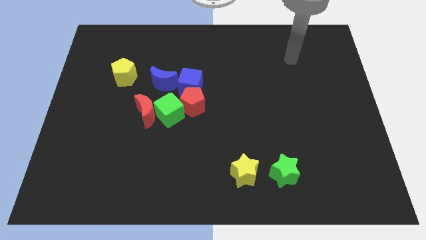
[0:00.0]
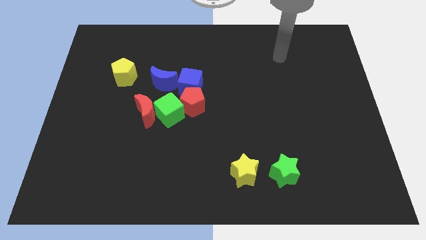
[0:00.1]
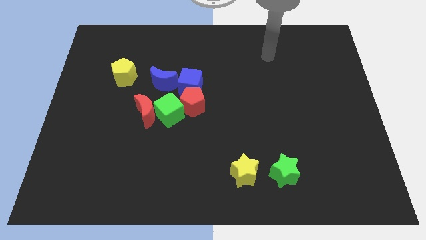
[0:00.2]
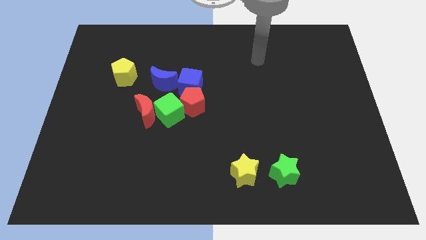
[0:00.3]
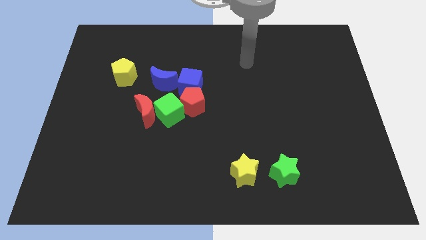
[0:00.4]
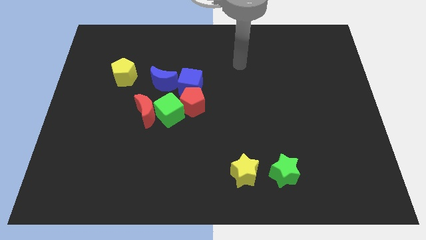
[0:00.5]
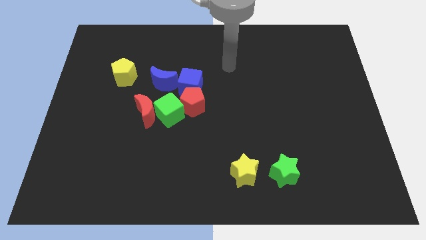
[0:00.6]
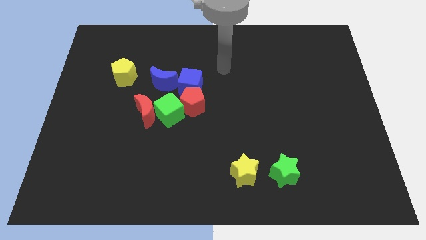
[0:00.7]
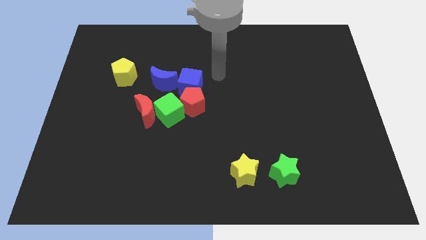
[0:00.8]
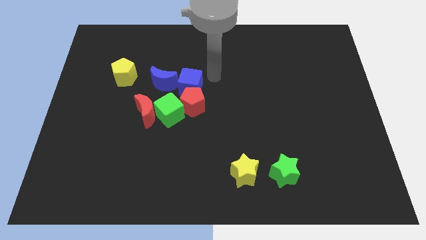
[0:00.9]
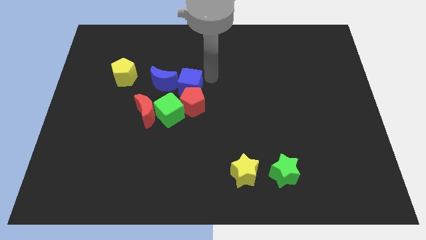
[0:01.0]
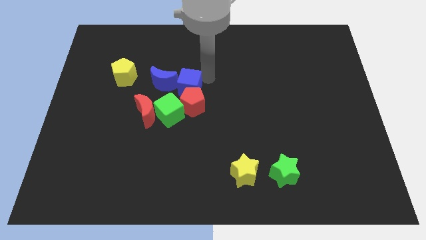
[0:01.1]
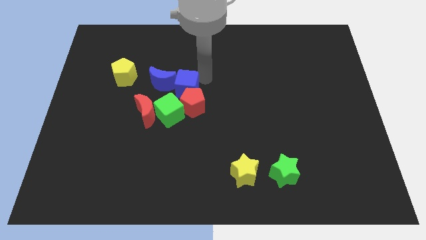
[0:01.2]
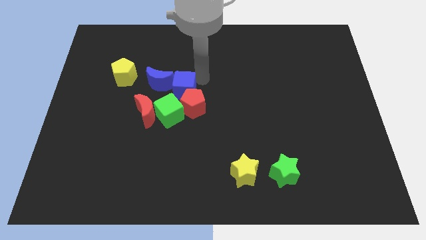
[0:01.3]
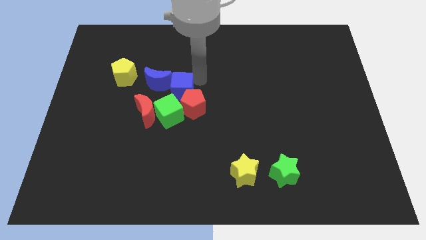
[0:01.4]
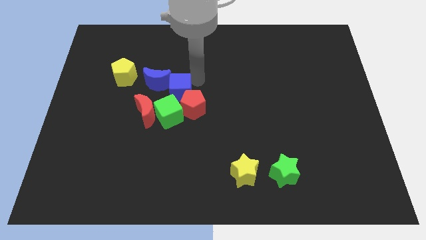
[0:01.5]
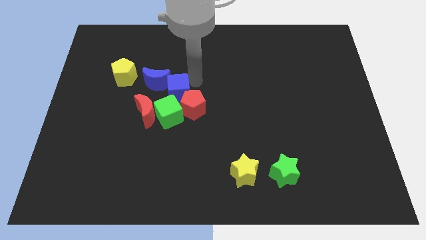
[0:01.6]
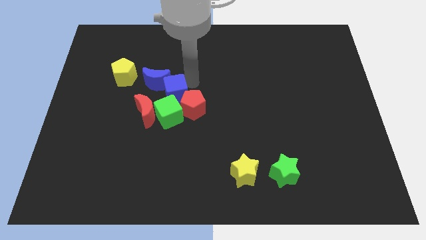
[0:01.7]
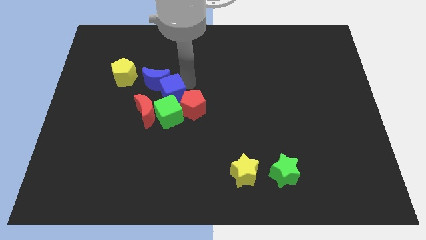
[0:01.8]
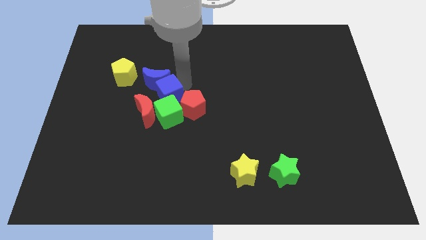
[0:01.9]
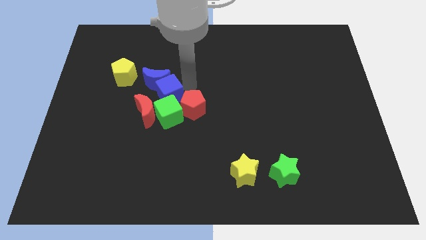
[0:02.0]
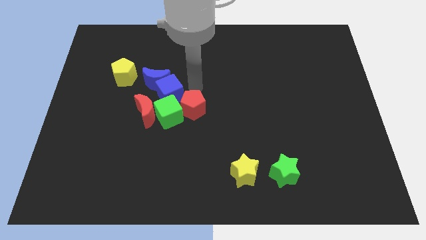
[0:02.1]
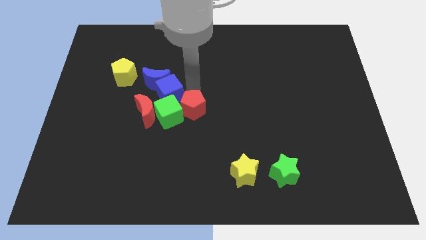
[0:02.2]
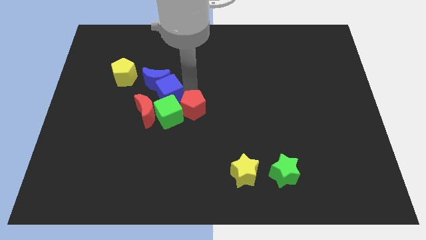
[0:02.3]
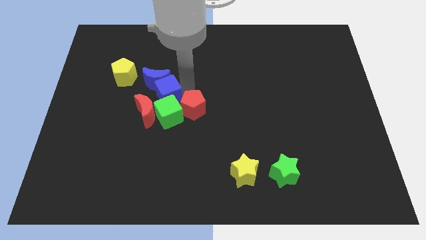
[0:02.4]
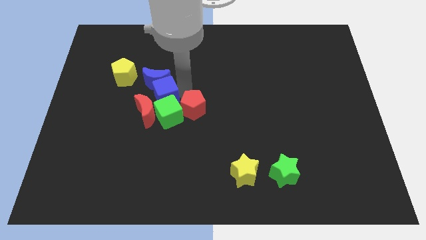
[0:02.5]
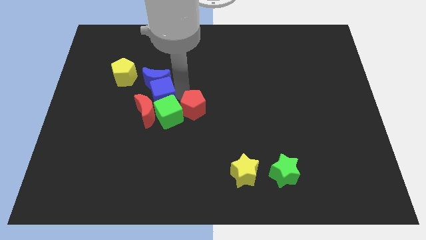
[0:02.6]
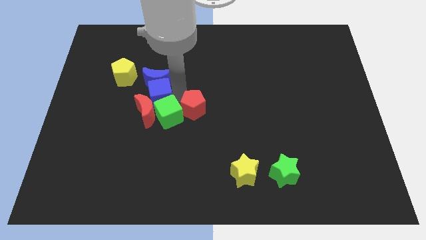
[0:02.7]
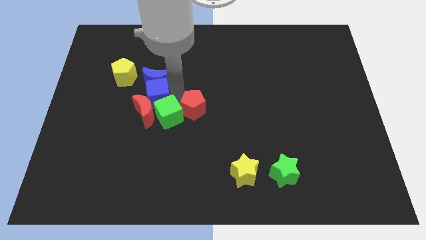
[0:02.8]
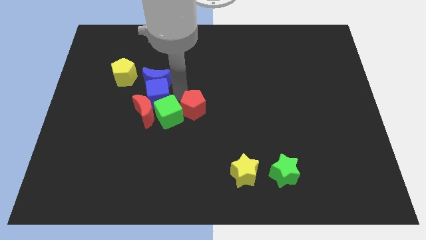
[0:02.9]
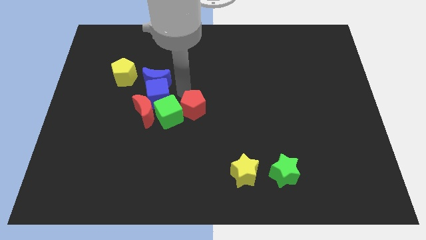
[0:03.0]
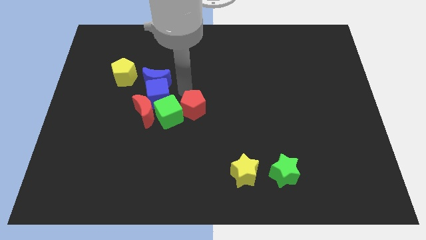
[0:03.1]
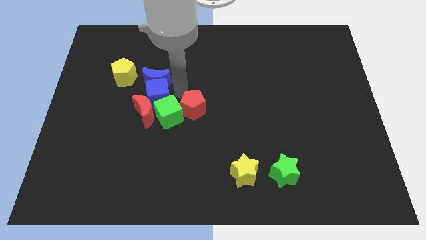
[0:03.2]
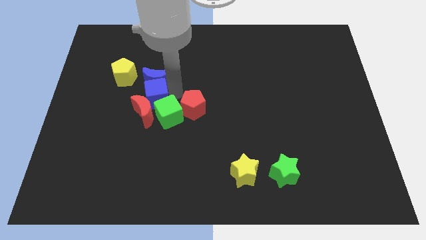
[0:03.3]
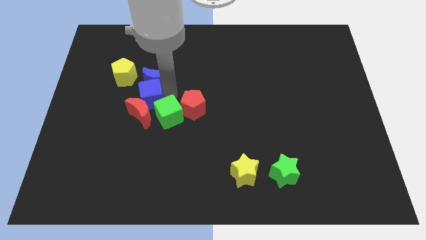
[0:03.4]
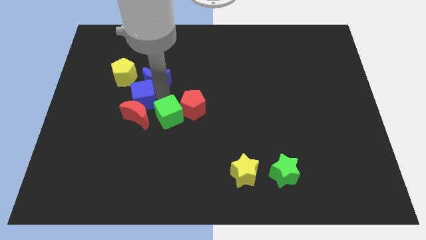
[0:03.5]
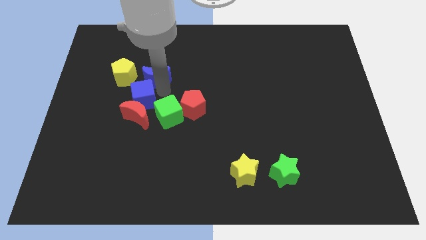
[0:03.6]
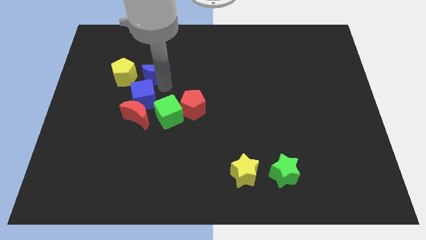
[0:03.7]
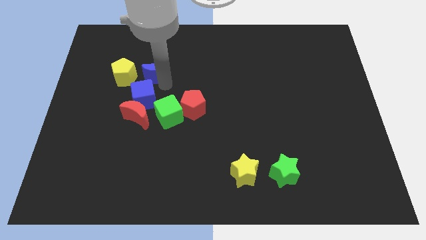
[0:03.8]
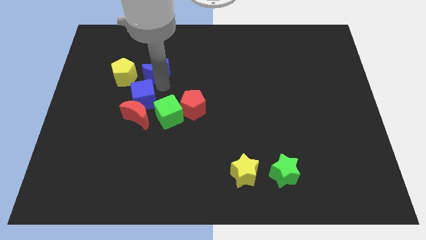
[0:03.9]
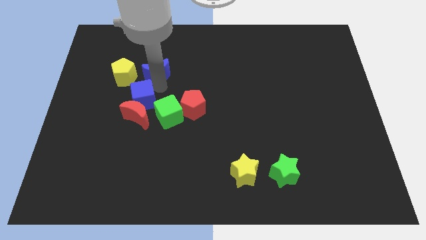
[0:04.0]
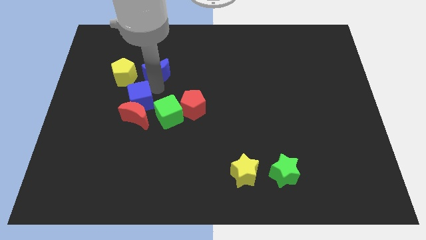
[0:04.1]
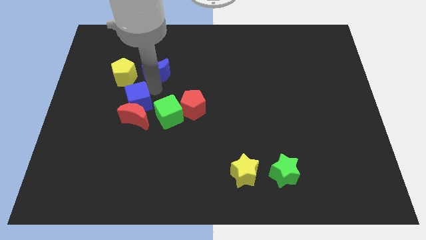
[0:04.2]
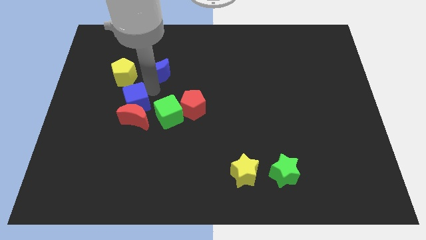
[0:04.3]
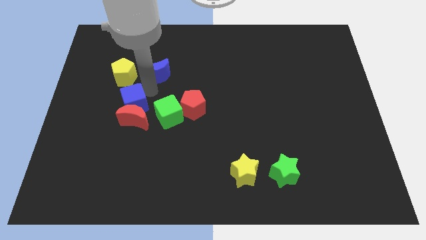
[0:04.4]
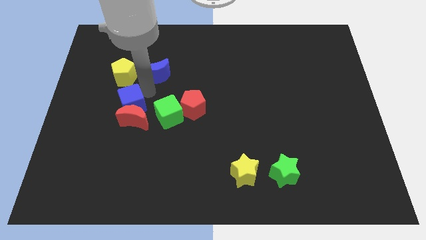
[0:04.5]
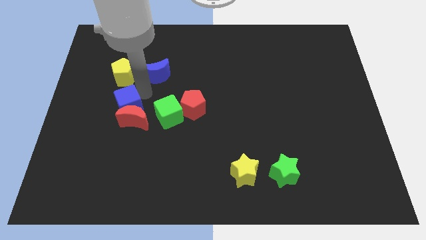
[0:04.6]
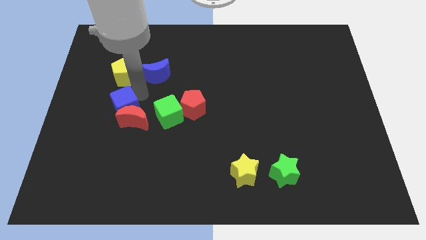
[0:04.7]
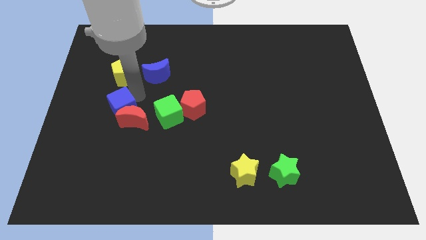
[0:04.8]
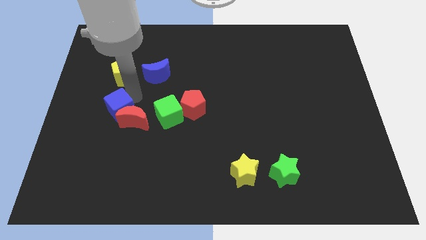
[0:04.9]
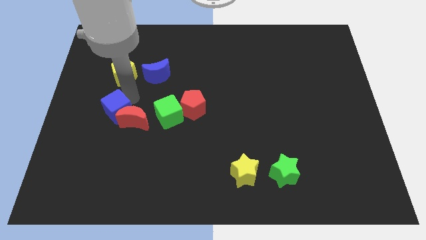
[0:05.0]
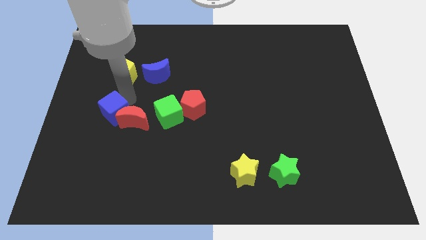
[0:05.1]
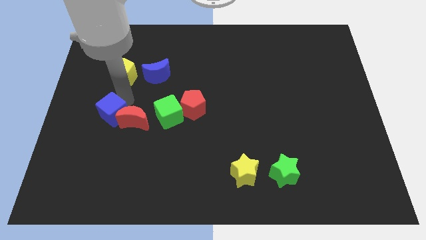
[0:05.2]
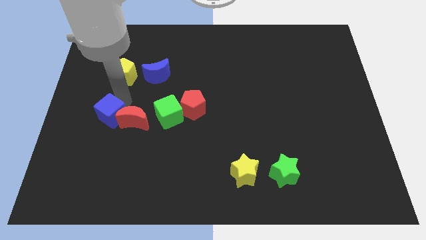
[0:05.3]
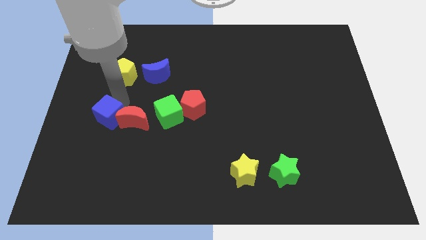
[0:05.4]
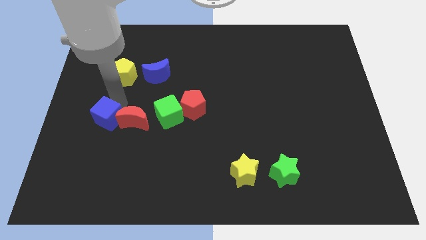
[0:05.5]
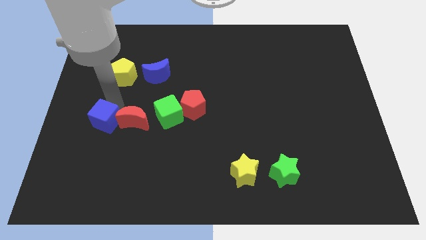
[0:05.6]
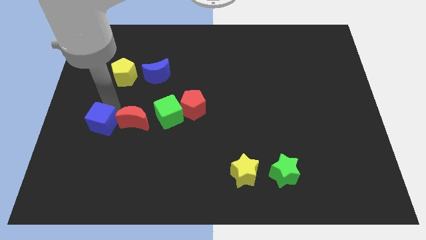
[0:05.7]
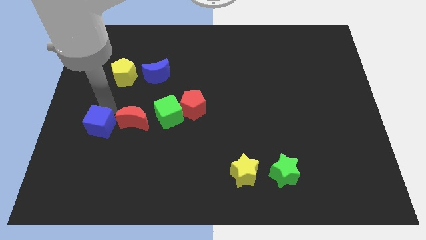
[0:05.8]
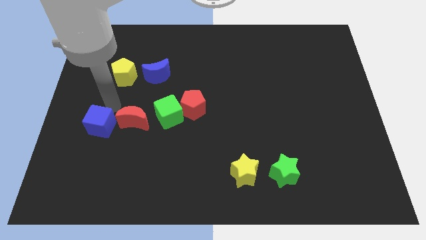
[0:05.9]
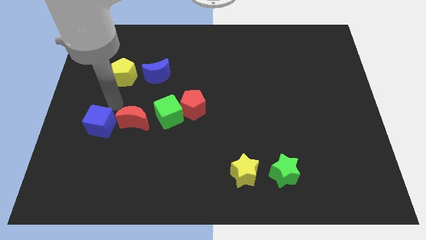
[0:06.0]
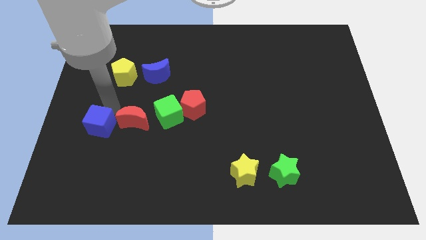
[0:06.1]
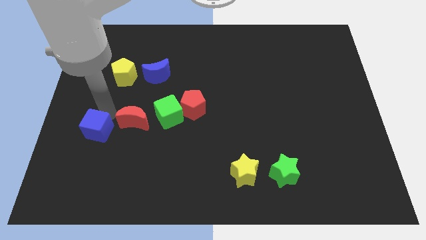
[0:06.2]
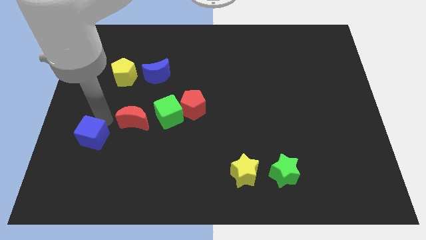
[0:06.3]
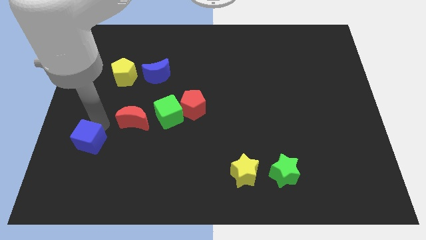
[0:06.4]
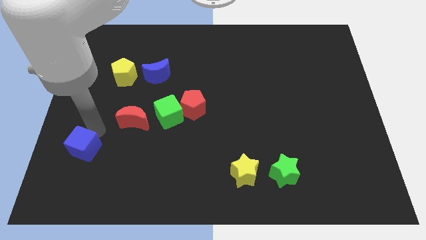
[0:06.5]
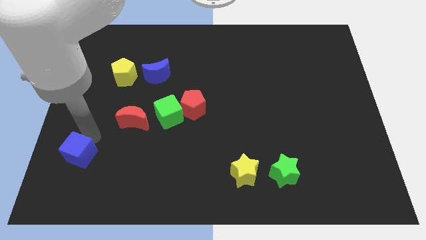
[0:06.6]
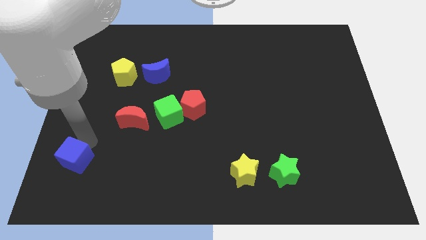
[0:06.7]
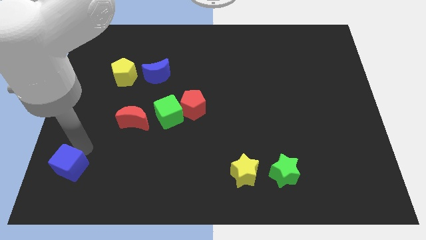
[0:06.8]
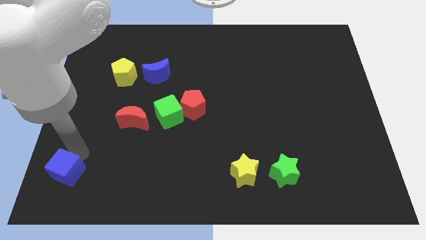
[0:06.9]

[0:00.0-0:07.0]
move the blue cube to the bottom left of the board
